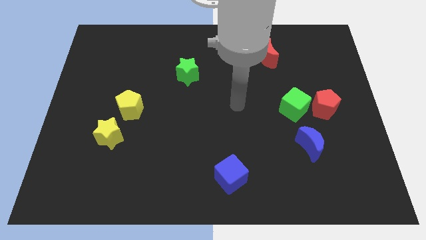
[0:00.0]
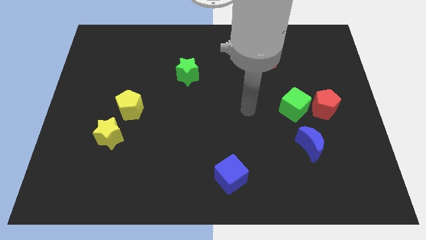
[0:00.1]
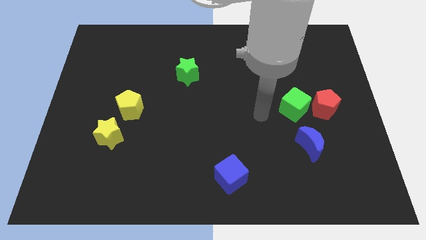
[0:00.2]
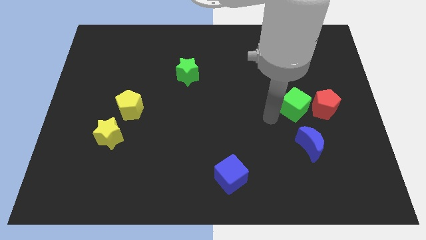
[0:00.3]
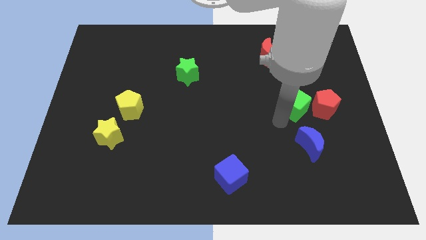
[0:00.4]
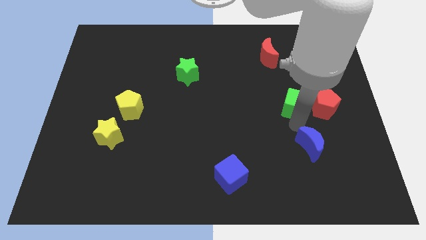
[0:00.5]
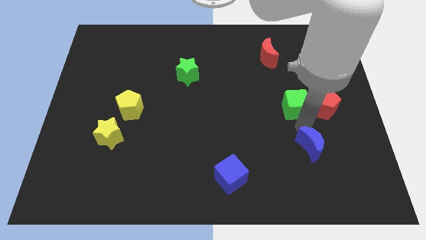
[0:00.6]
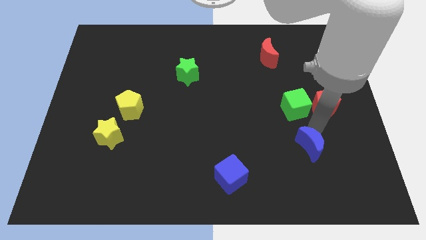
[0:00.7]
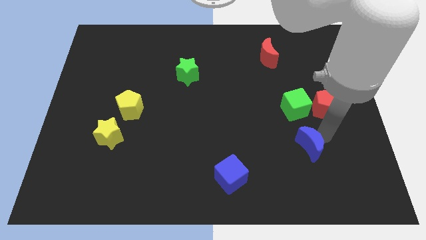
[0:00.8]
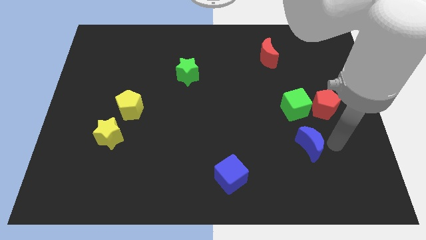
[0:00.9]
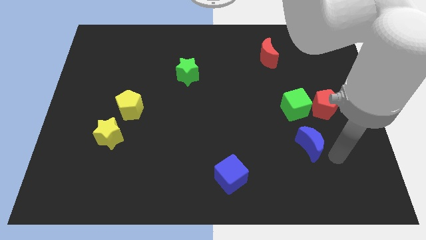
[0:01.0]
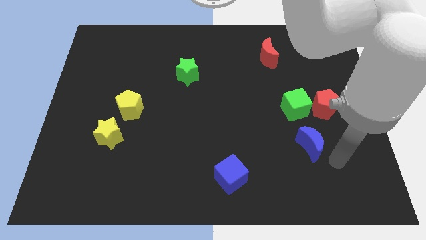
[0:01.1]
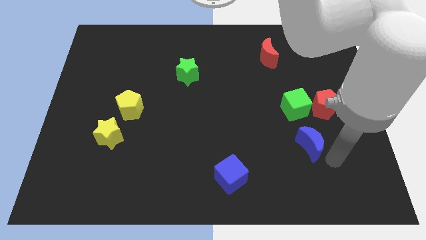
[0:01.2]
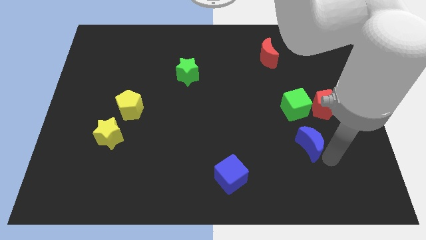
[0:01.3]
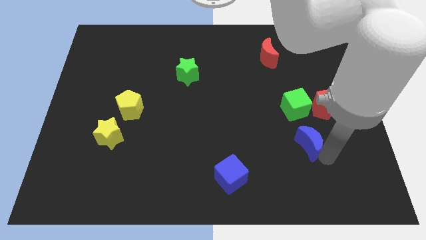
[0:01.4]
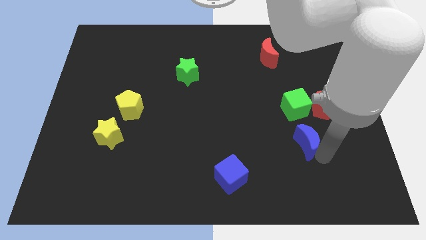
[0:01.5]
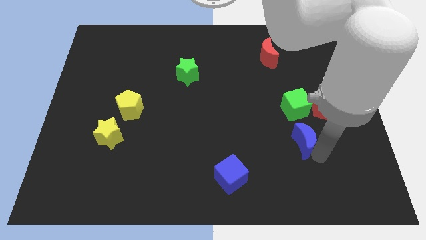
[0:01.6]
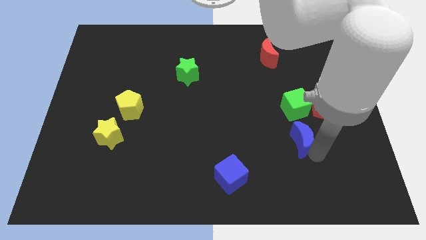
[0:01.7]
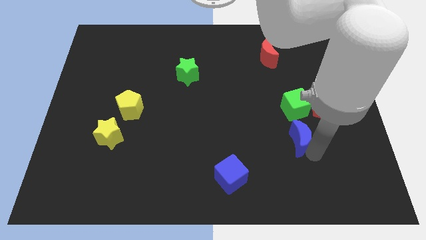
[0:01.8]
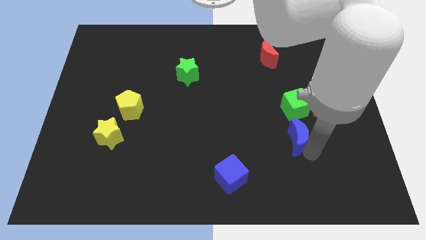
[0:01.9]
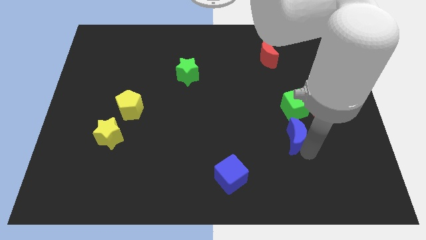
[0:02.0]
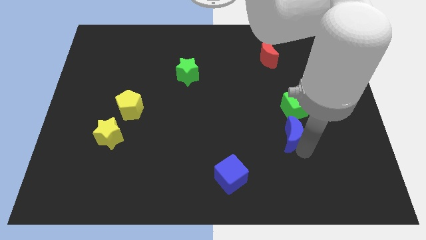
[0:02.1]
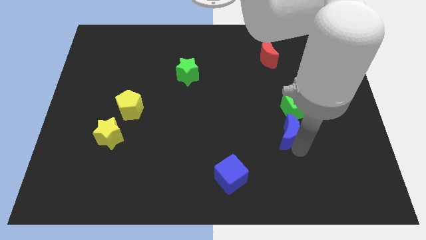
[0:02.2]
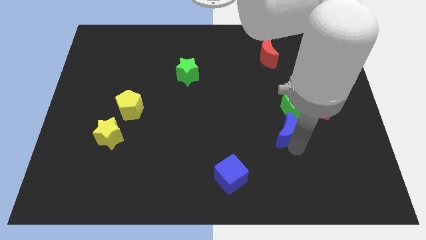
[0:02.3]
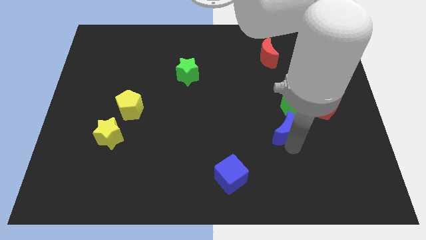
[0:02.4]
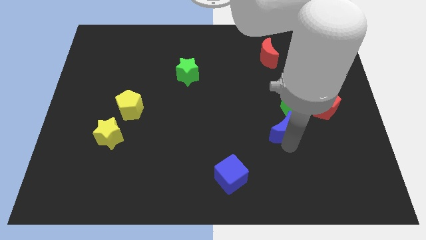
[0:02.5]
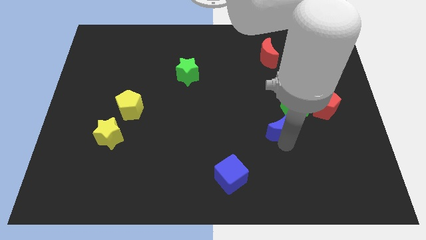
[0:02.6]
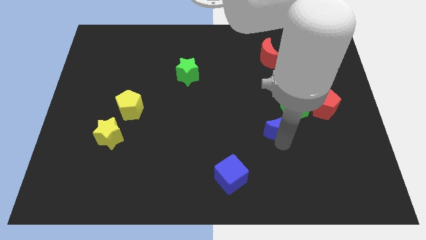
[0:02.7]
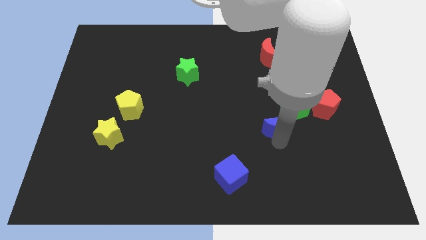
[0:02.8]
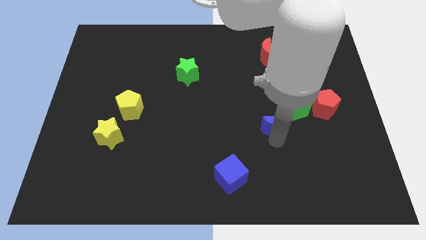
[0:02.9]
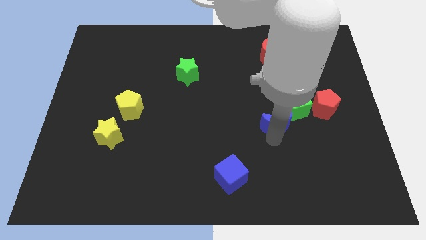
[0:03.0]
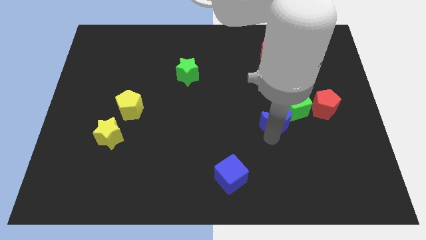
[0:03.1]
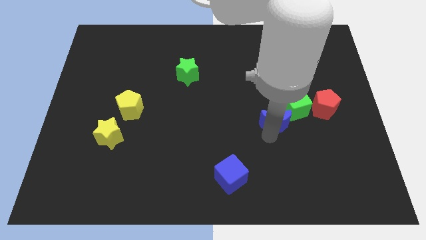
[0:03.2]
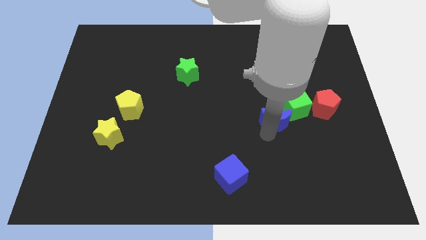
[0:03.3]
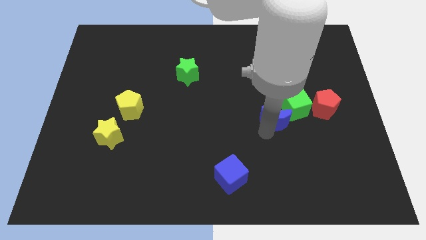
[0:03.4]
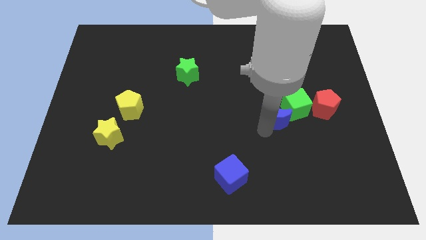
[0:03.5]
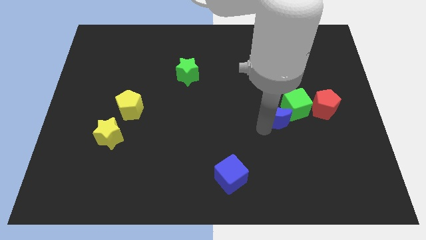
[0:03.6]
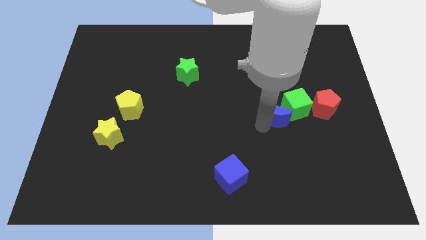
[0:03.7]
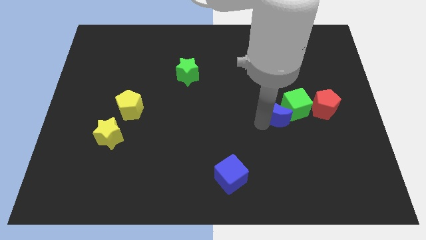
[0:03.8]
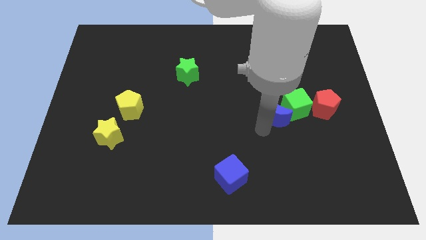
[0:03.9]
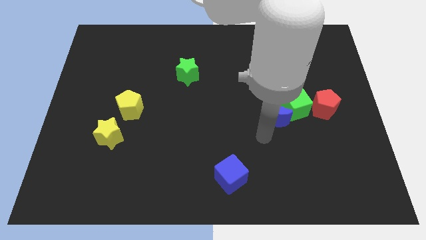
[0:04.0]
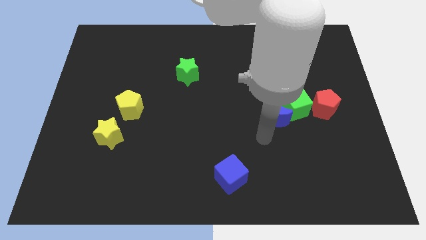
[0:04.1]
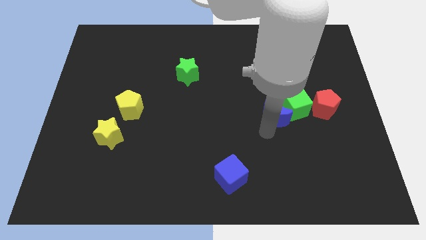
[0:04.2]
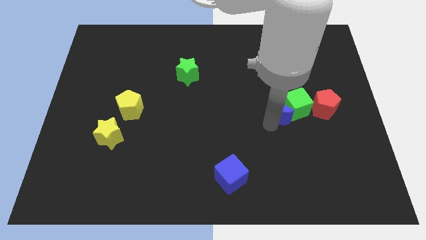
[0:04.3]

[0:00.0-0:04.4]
slightly slide the blue moon up

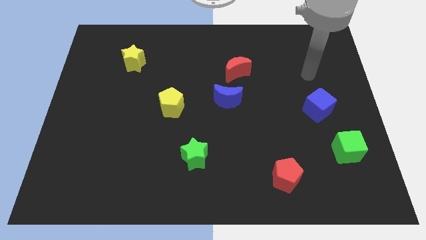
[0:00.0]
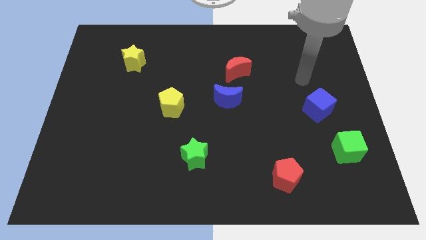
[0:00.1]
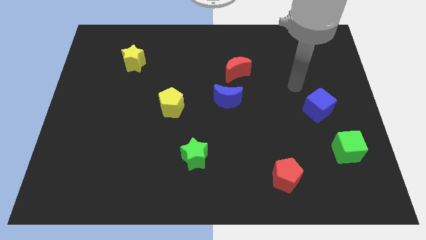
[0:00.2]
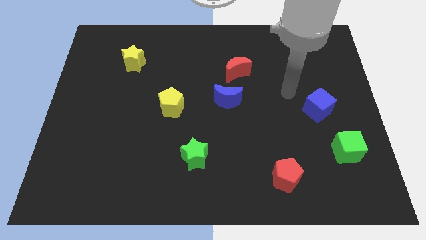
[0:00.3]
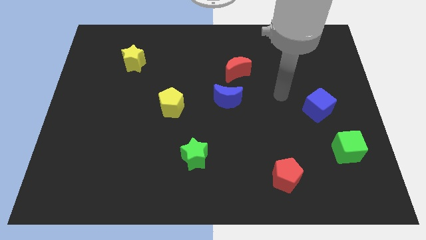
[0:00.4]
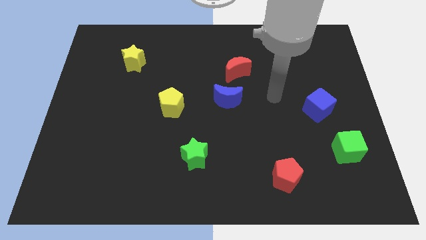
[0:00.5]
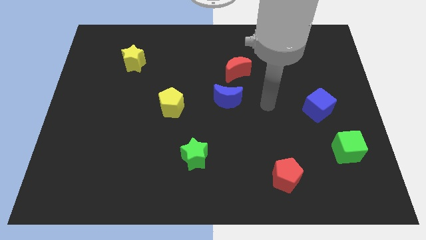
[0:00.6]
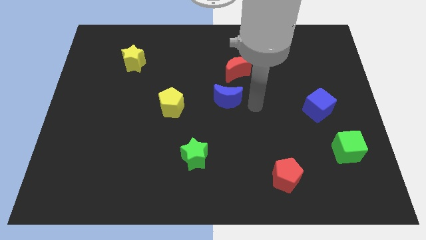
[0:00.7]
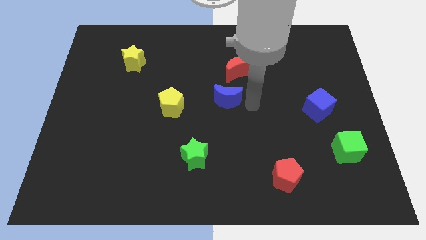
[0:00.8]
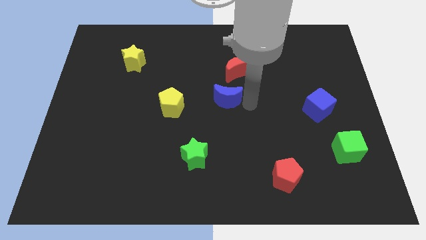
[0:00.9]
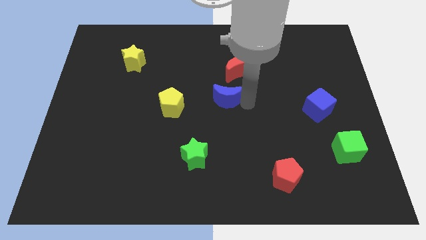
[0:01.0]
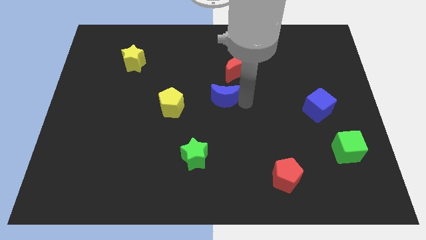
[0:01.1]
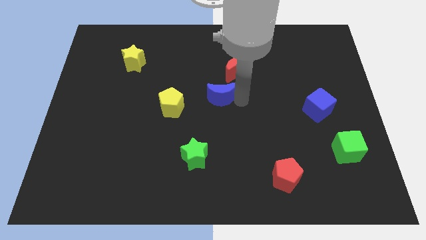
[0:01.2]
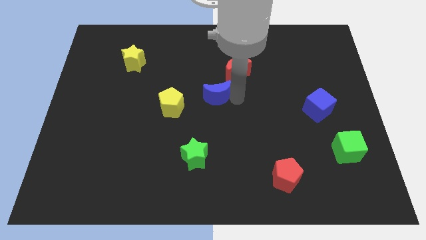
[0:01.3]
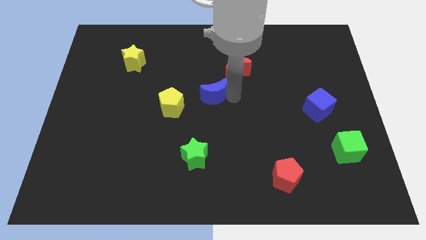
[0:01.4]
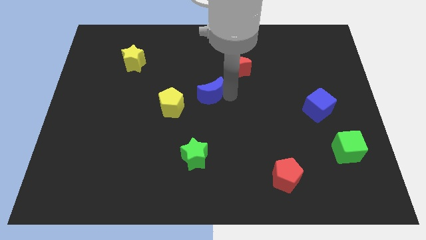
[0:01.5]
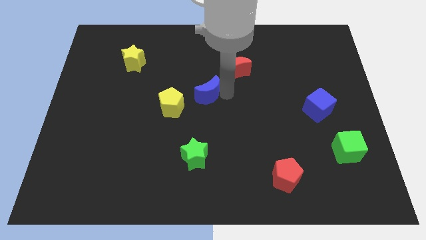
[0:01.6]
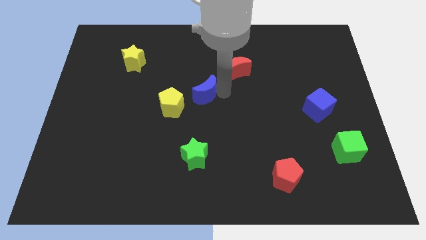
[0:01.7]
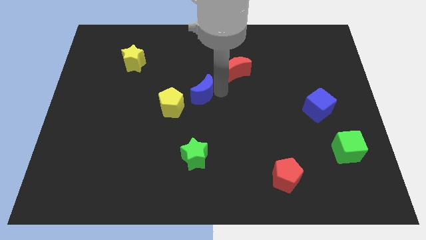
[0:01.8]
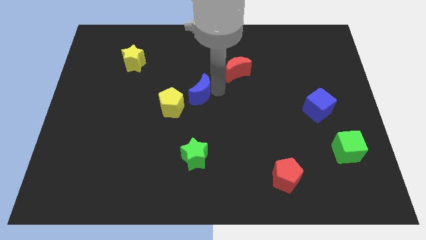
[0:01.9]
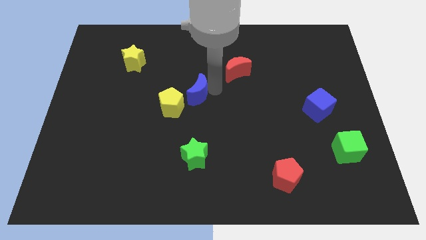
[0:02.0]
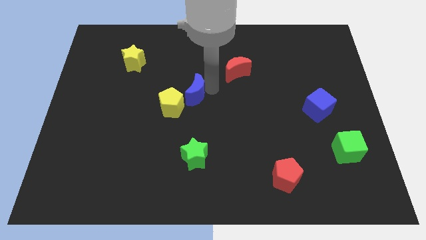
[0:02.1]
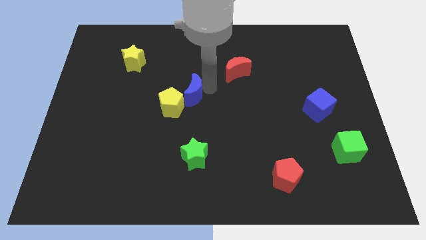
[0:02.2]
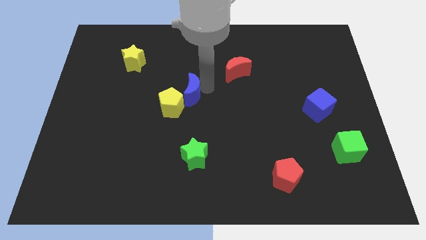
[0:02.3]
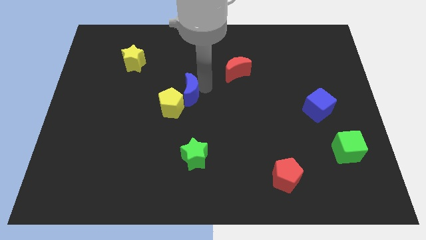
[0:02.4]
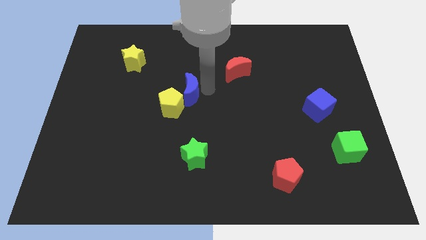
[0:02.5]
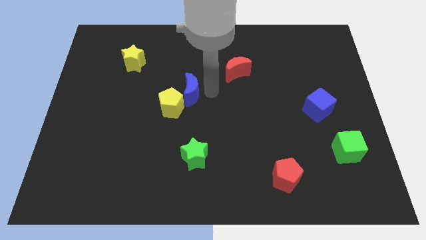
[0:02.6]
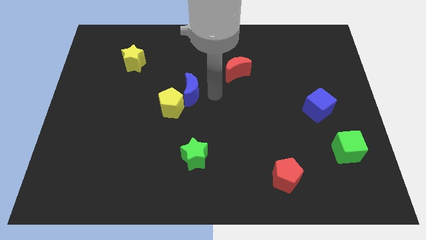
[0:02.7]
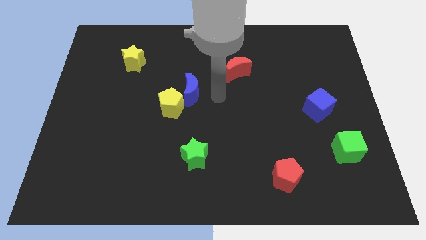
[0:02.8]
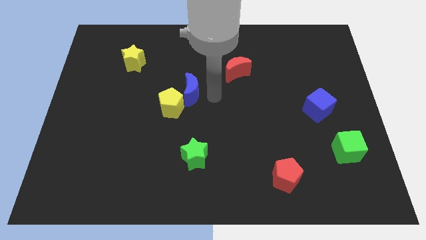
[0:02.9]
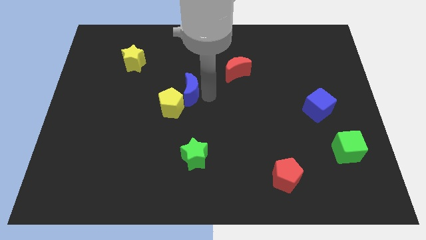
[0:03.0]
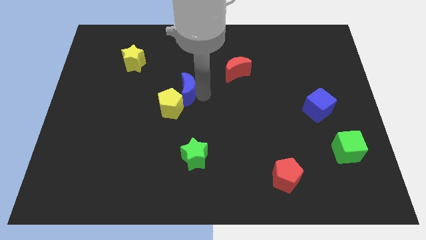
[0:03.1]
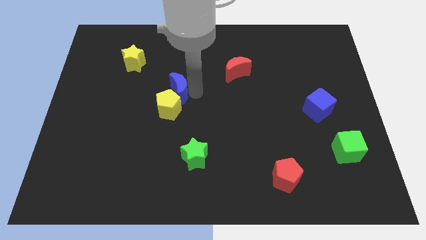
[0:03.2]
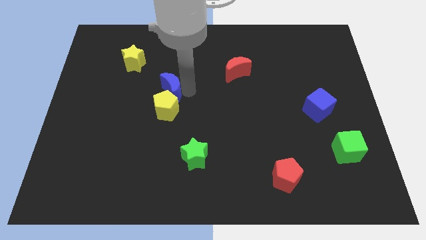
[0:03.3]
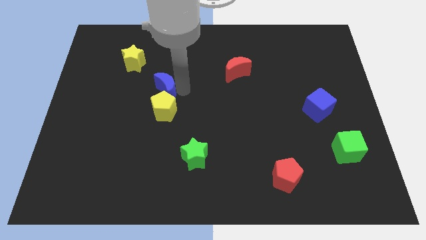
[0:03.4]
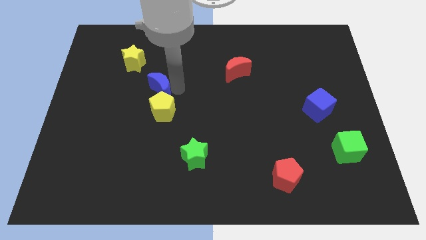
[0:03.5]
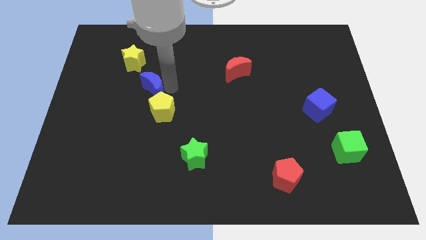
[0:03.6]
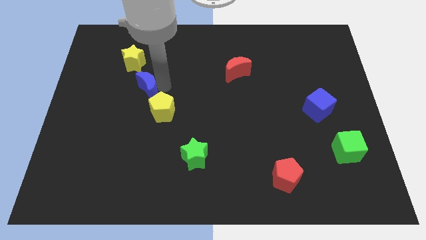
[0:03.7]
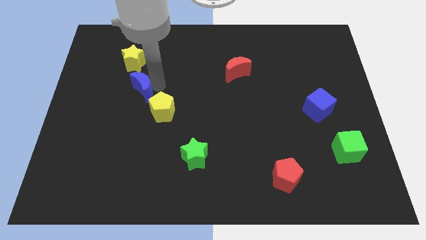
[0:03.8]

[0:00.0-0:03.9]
move the blue moon left
